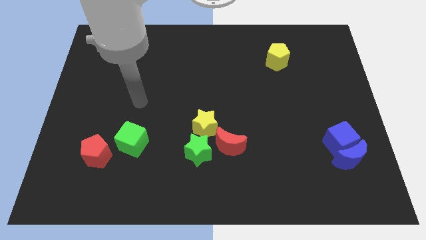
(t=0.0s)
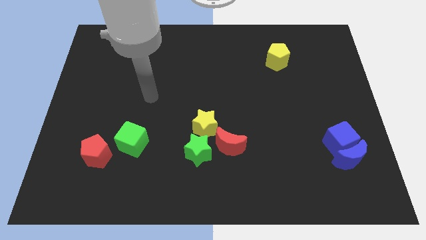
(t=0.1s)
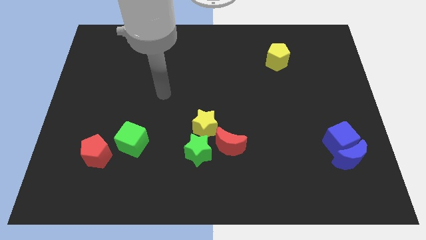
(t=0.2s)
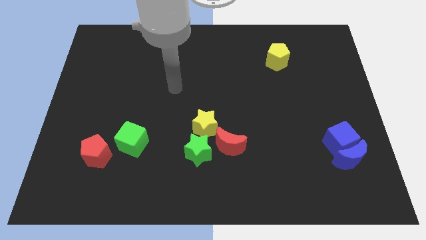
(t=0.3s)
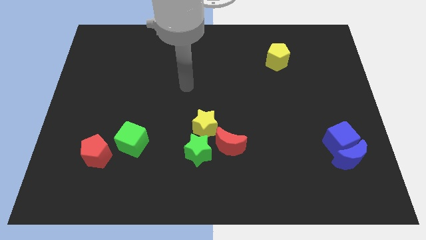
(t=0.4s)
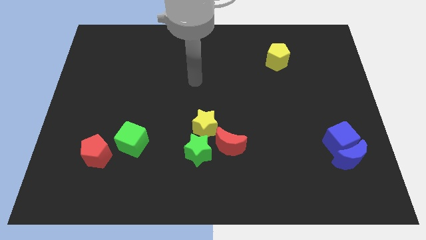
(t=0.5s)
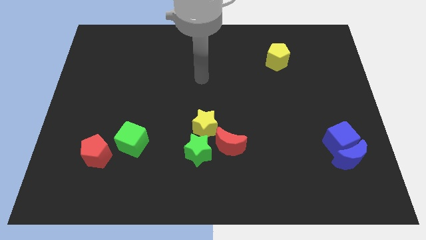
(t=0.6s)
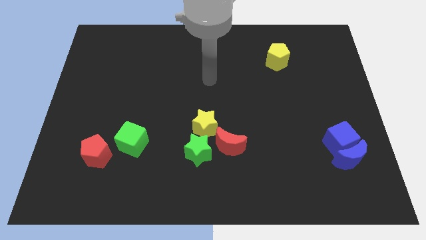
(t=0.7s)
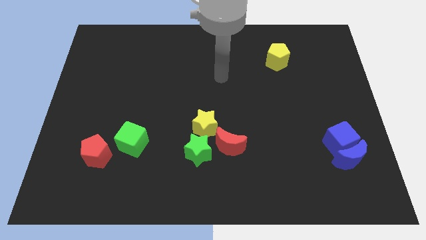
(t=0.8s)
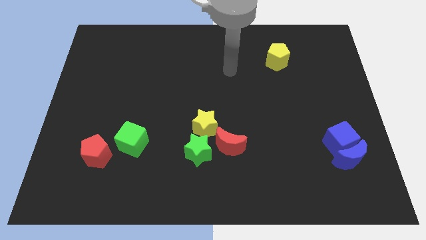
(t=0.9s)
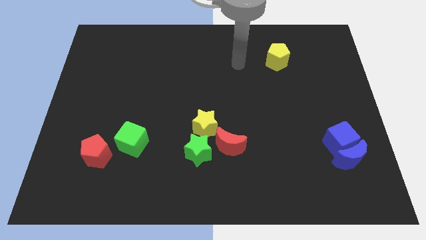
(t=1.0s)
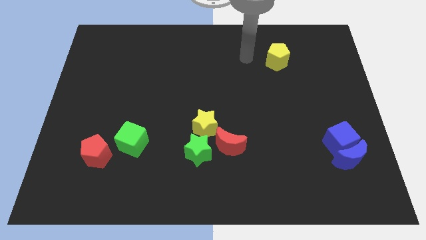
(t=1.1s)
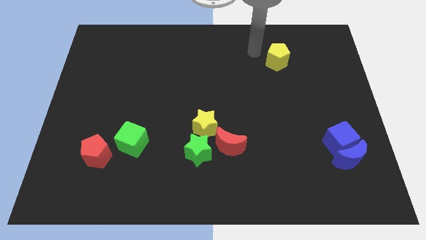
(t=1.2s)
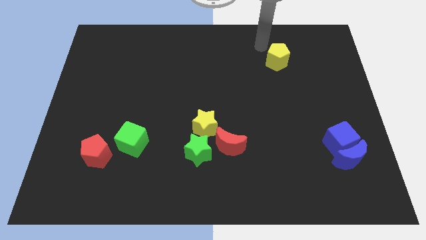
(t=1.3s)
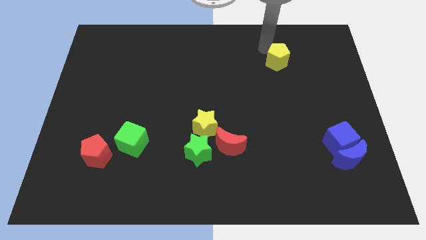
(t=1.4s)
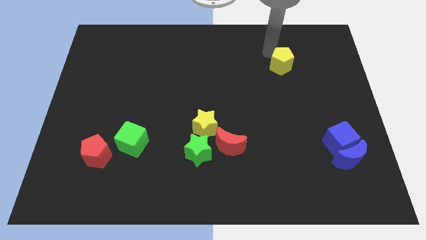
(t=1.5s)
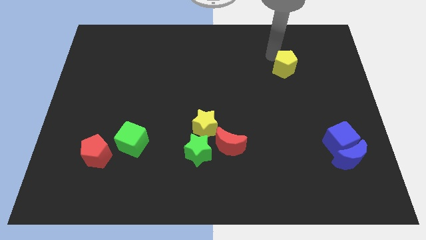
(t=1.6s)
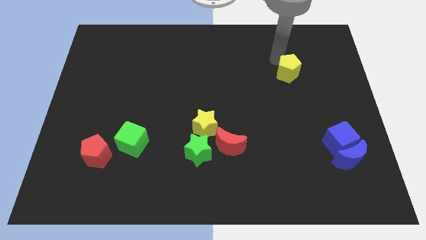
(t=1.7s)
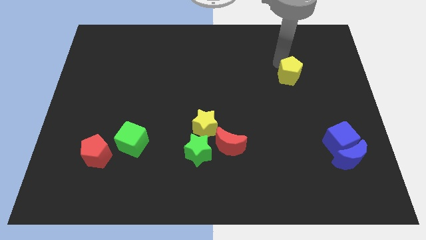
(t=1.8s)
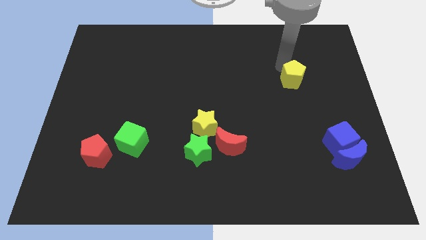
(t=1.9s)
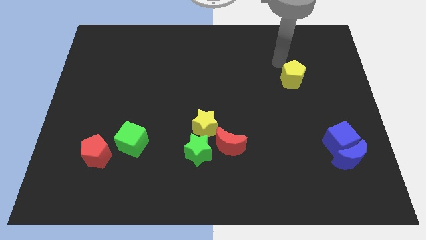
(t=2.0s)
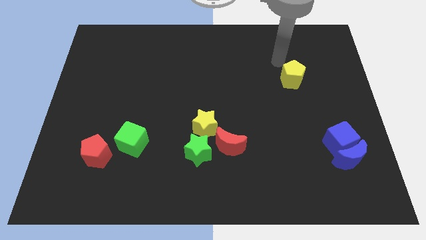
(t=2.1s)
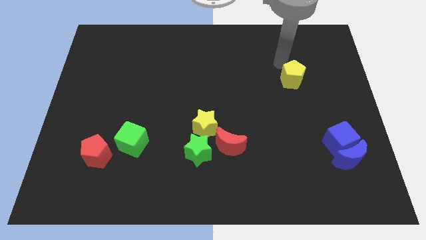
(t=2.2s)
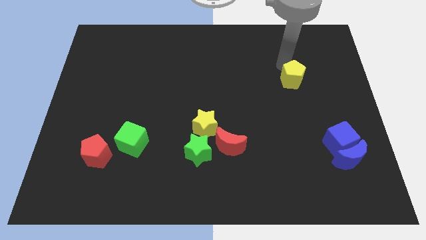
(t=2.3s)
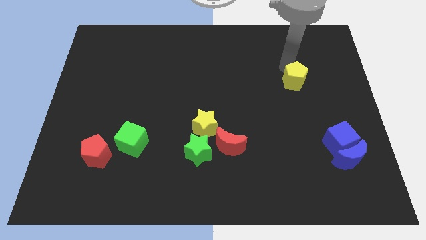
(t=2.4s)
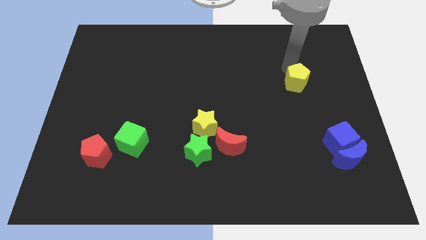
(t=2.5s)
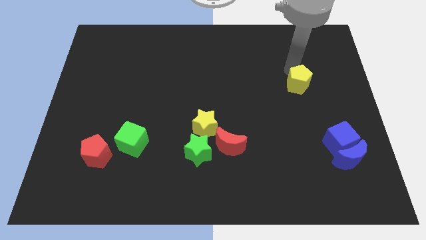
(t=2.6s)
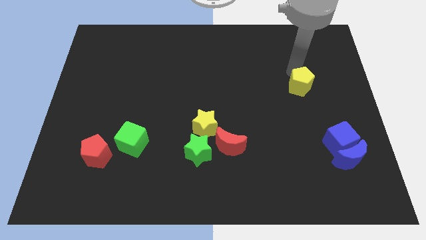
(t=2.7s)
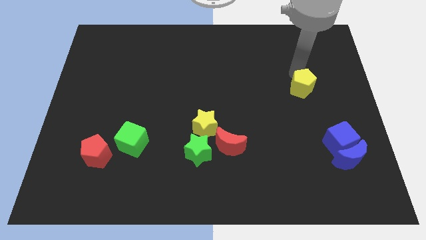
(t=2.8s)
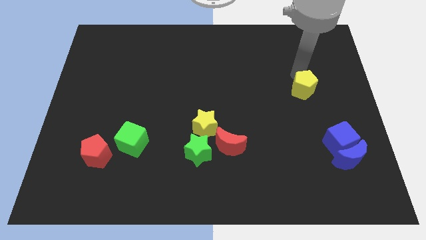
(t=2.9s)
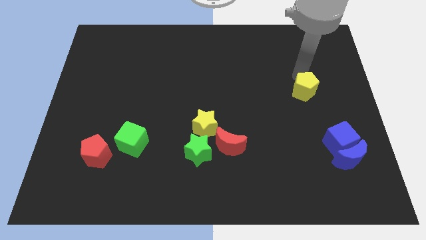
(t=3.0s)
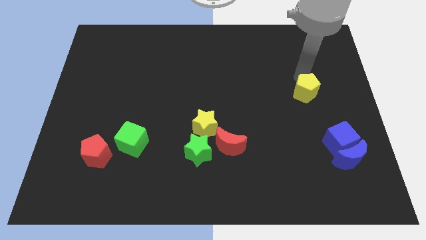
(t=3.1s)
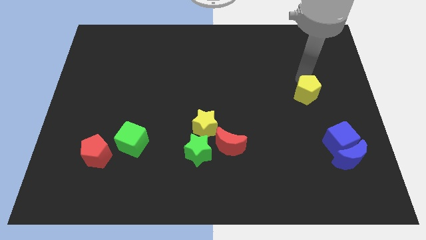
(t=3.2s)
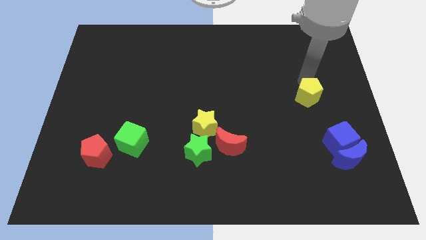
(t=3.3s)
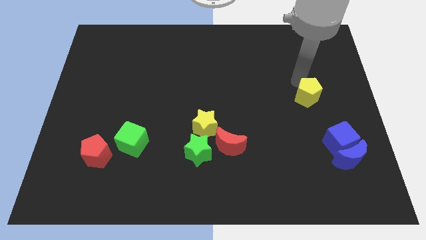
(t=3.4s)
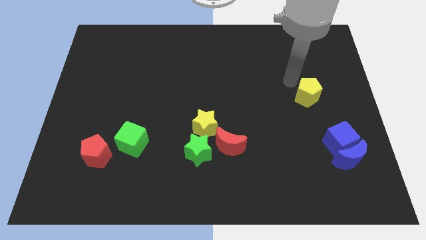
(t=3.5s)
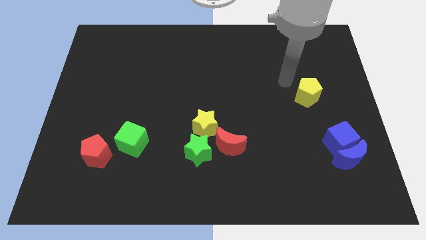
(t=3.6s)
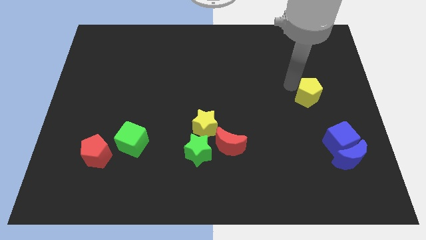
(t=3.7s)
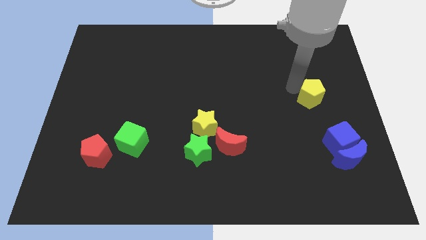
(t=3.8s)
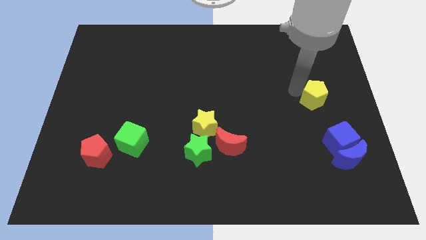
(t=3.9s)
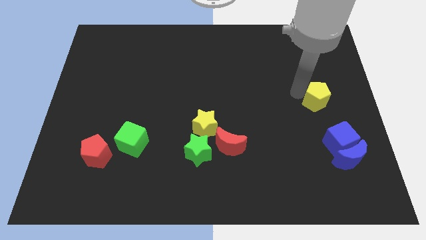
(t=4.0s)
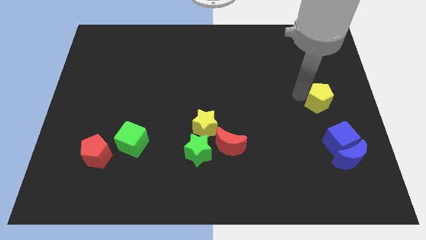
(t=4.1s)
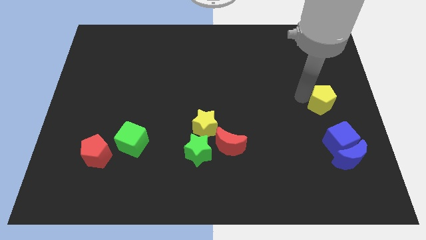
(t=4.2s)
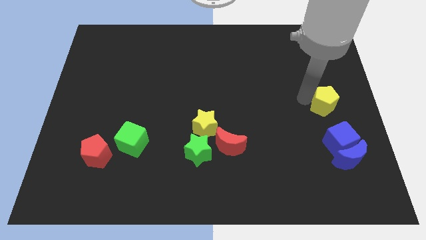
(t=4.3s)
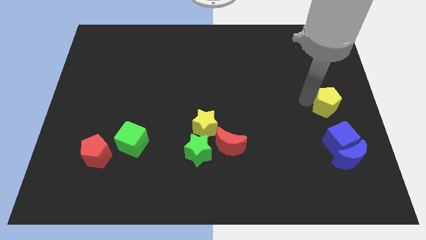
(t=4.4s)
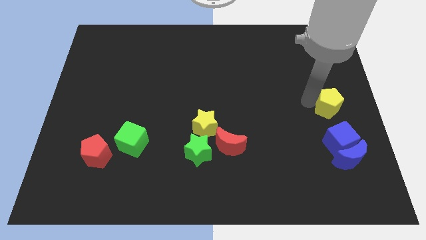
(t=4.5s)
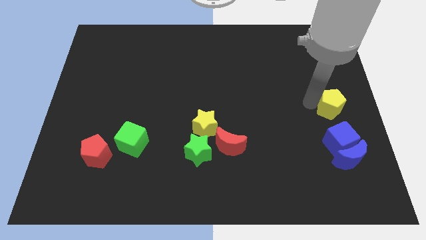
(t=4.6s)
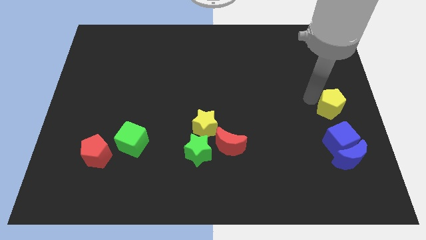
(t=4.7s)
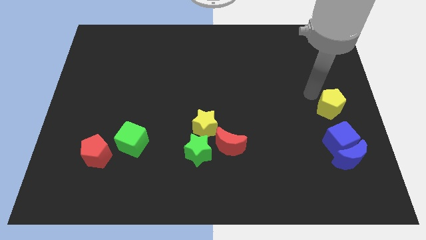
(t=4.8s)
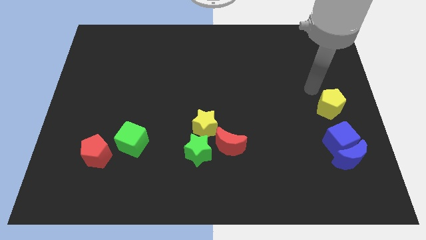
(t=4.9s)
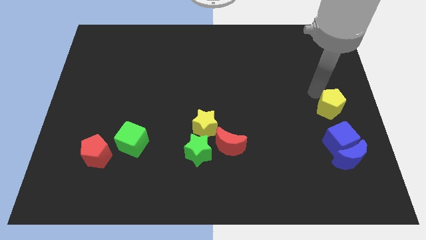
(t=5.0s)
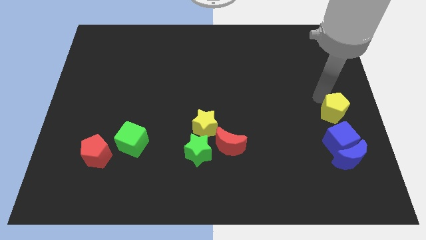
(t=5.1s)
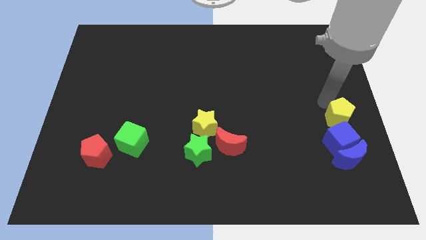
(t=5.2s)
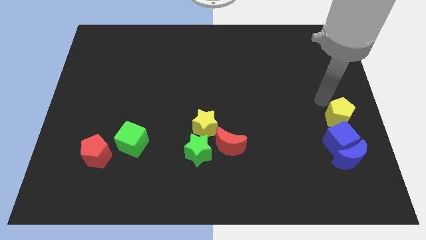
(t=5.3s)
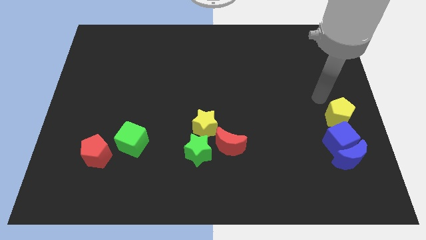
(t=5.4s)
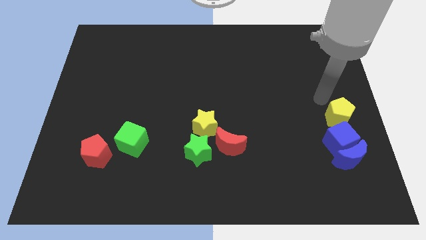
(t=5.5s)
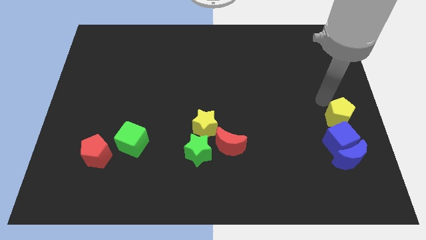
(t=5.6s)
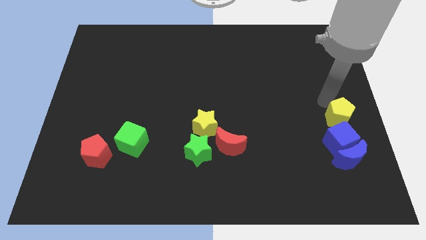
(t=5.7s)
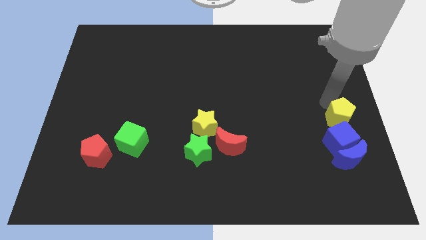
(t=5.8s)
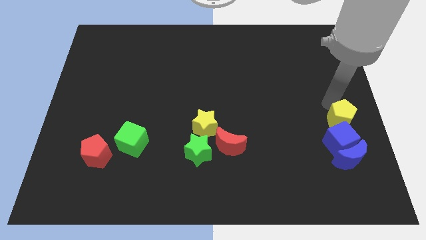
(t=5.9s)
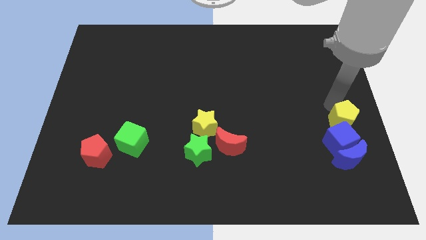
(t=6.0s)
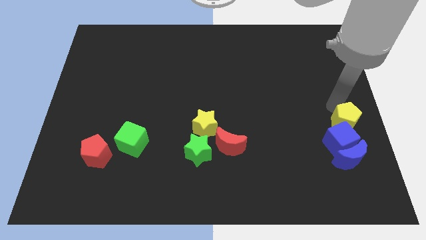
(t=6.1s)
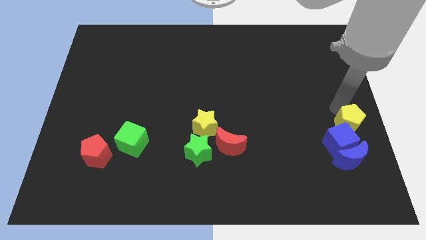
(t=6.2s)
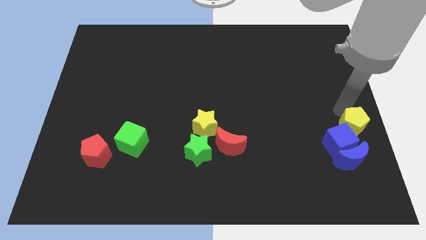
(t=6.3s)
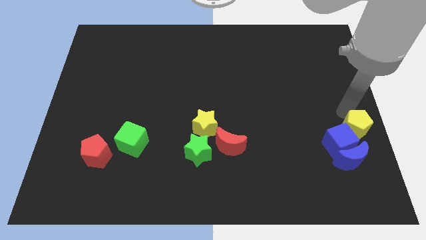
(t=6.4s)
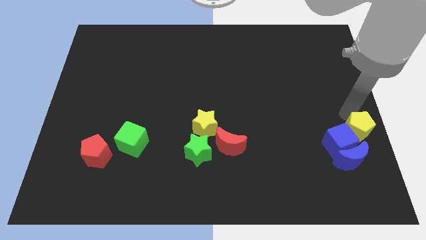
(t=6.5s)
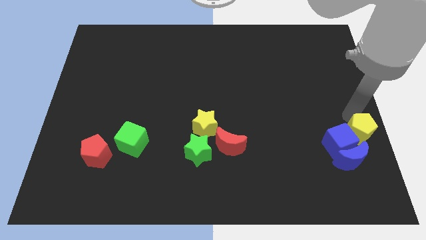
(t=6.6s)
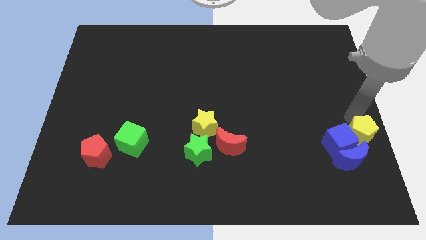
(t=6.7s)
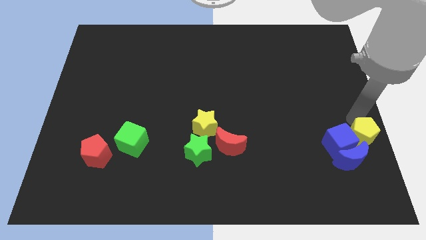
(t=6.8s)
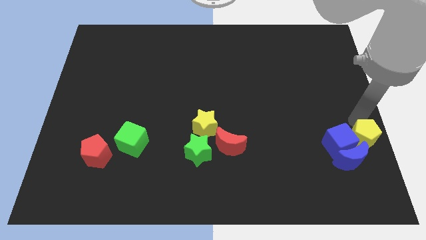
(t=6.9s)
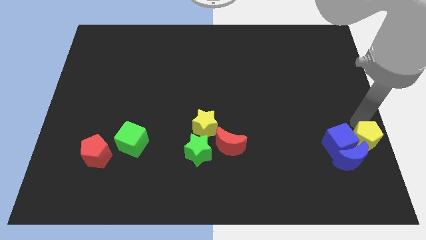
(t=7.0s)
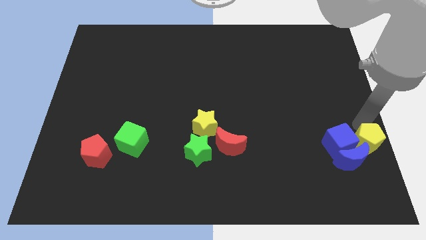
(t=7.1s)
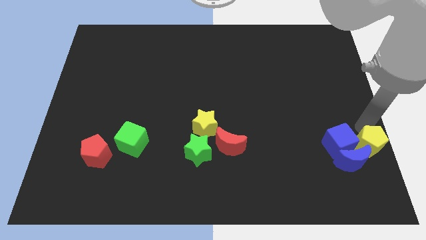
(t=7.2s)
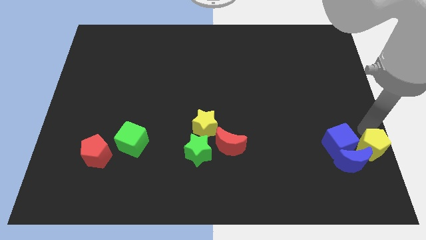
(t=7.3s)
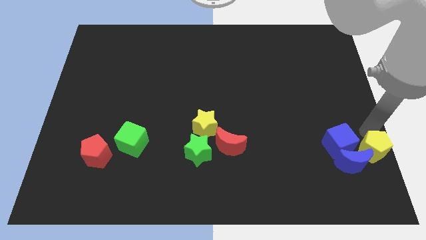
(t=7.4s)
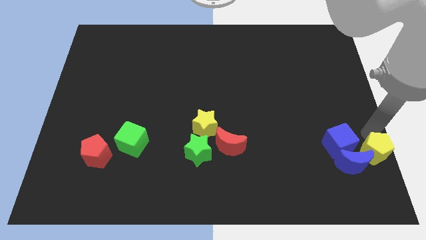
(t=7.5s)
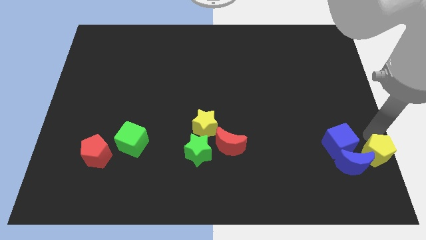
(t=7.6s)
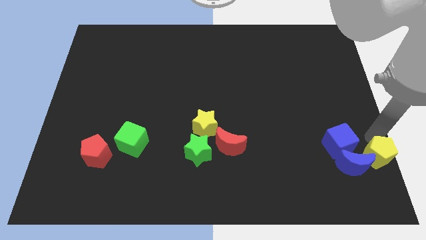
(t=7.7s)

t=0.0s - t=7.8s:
slide the yellow pentagon to the bottom right
